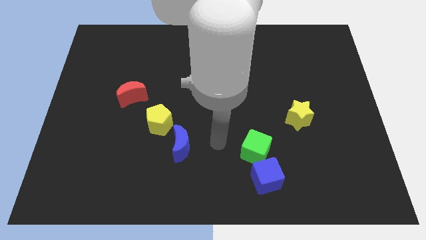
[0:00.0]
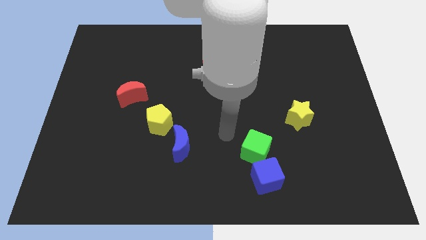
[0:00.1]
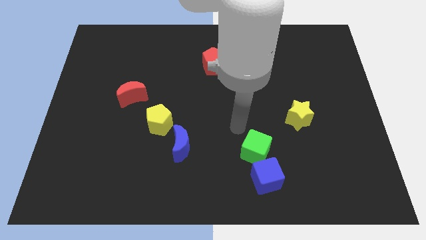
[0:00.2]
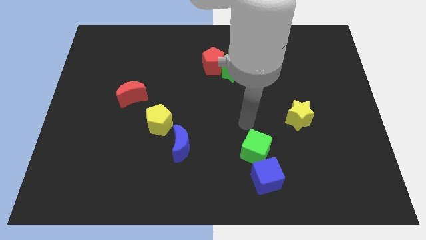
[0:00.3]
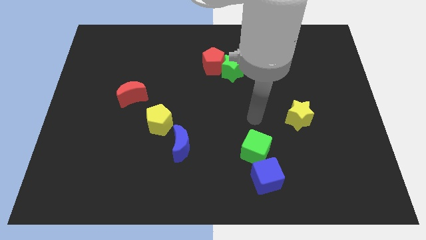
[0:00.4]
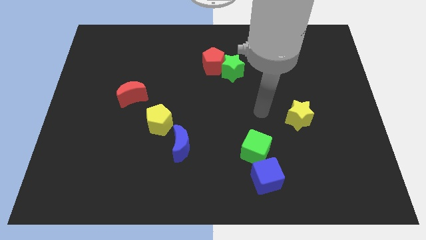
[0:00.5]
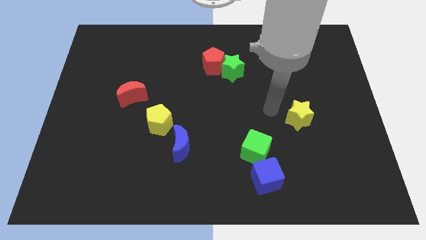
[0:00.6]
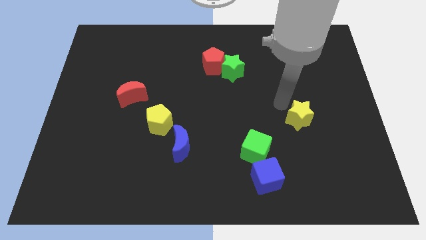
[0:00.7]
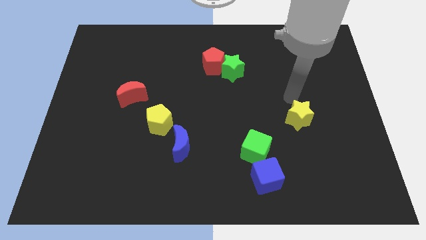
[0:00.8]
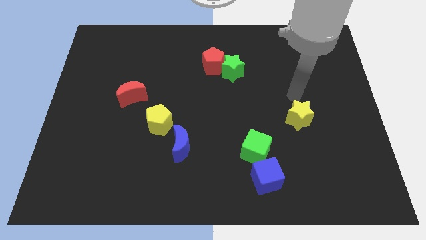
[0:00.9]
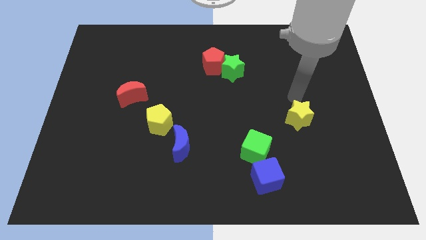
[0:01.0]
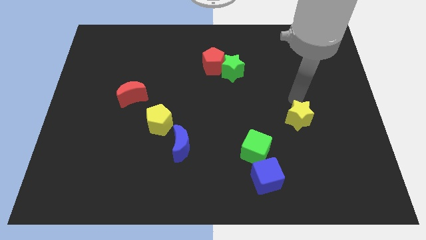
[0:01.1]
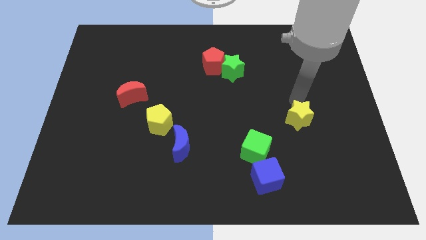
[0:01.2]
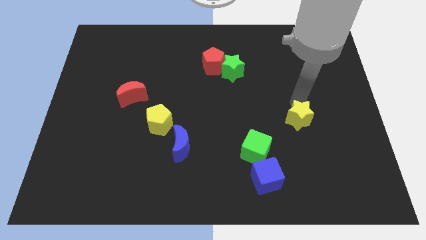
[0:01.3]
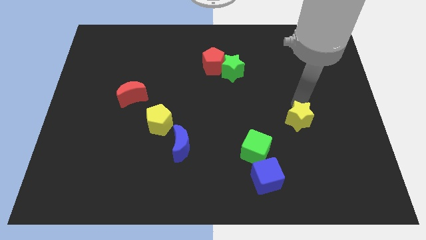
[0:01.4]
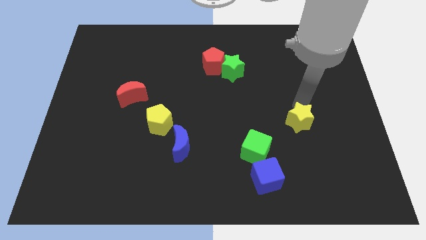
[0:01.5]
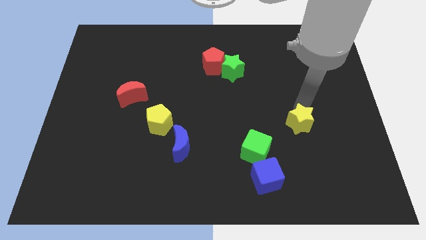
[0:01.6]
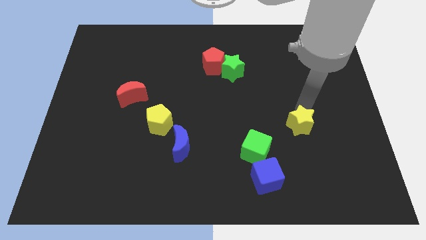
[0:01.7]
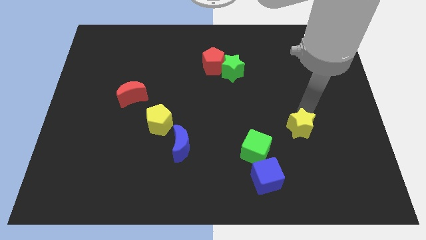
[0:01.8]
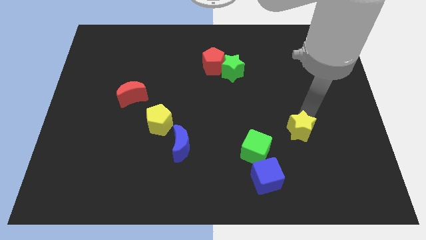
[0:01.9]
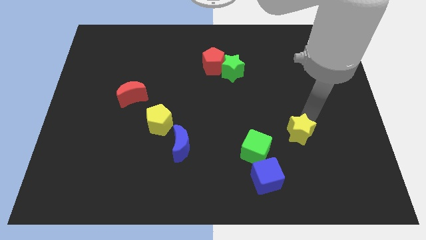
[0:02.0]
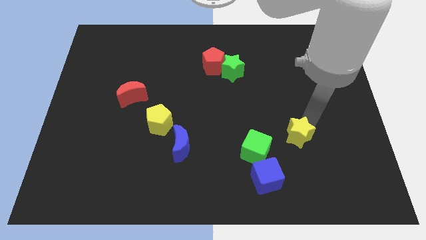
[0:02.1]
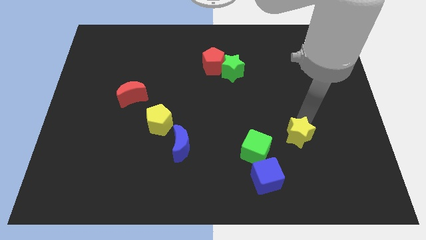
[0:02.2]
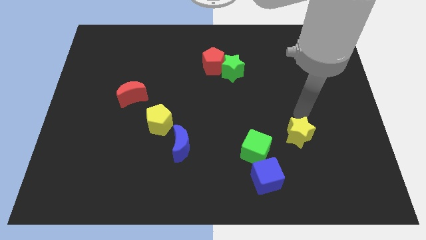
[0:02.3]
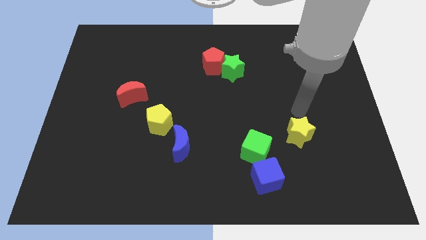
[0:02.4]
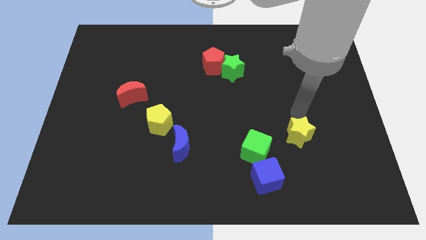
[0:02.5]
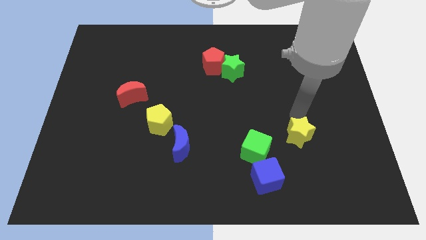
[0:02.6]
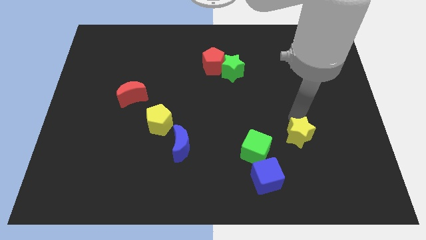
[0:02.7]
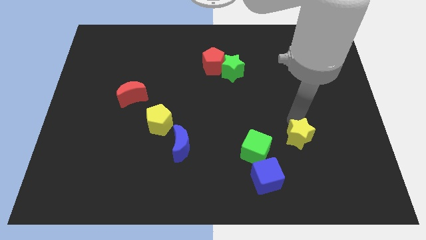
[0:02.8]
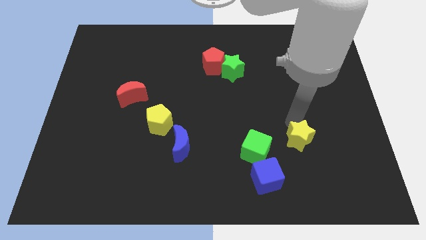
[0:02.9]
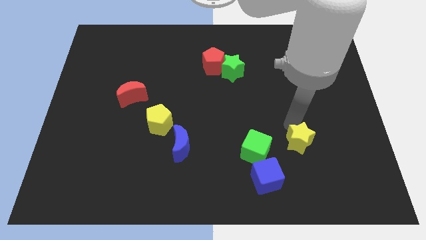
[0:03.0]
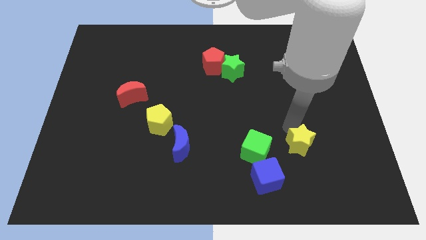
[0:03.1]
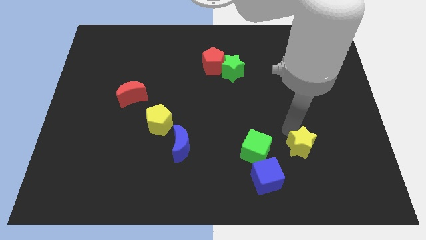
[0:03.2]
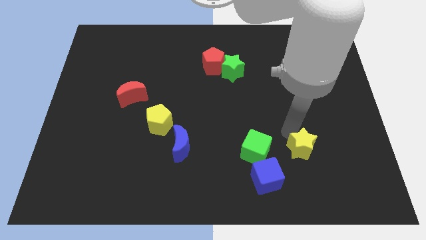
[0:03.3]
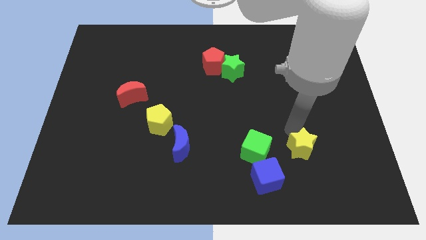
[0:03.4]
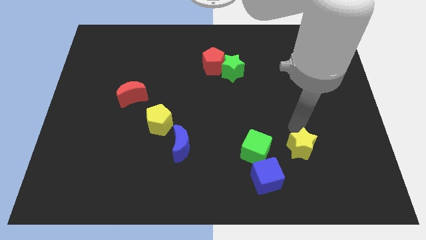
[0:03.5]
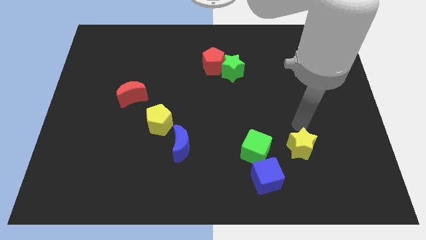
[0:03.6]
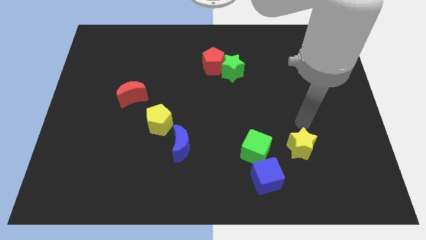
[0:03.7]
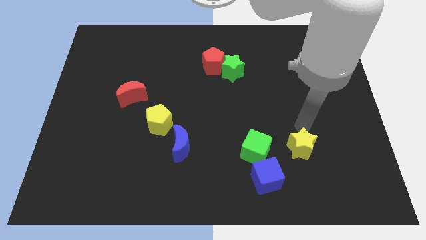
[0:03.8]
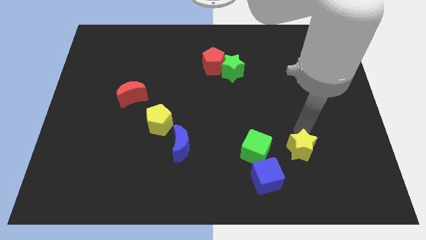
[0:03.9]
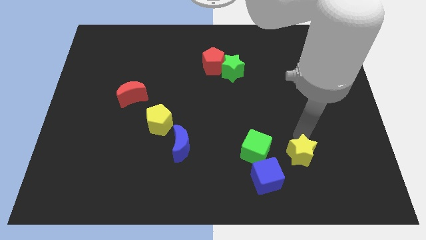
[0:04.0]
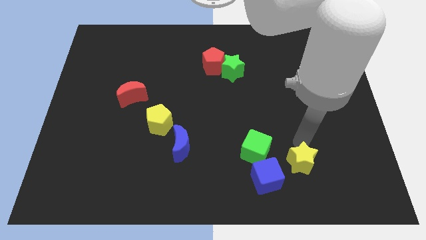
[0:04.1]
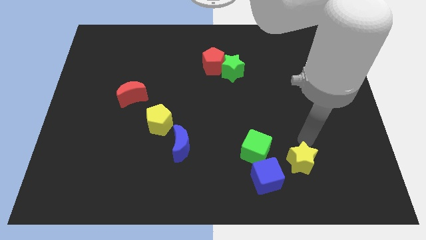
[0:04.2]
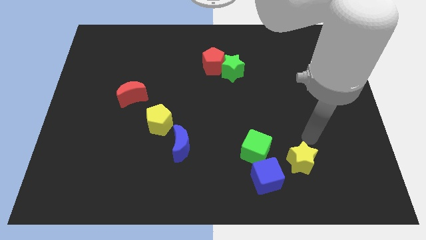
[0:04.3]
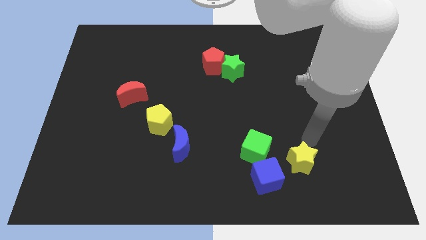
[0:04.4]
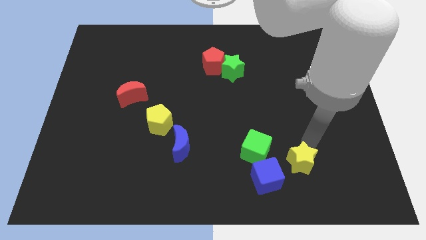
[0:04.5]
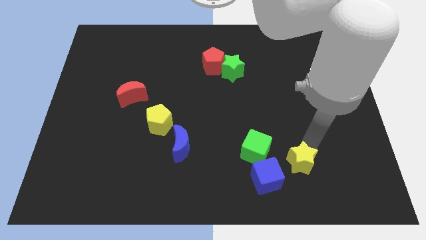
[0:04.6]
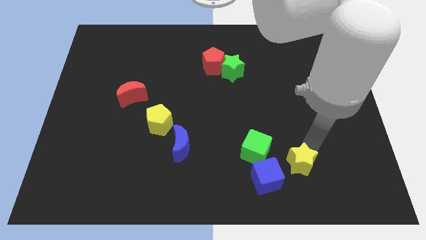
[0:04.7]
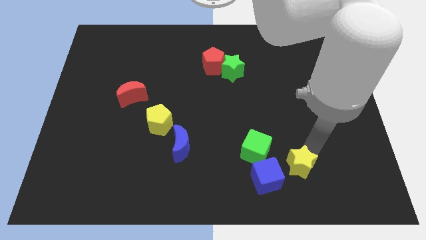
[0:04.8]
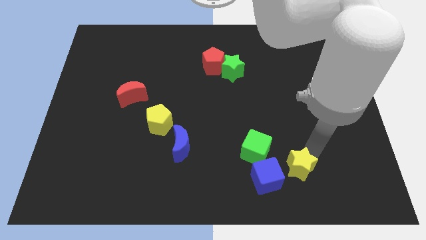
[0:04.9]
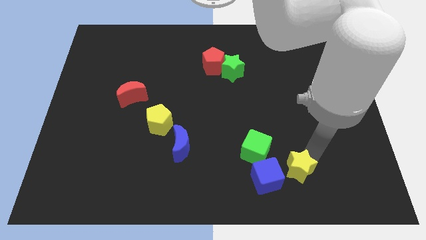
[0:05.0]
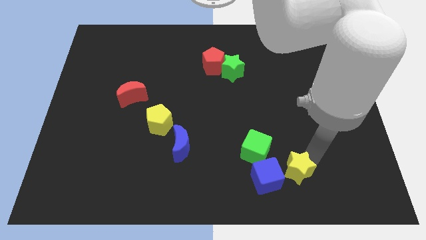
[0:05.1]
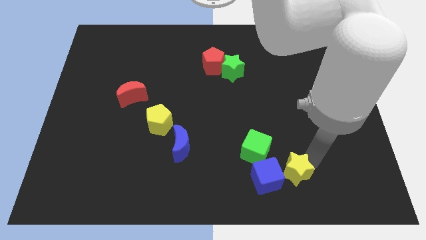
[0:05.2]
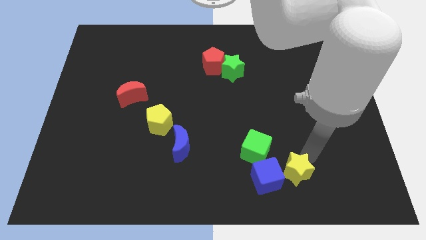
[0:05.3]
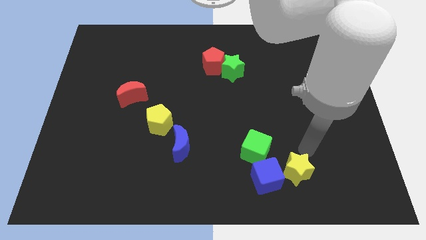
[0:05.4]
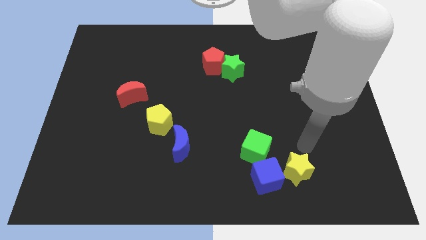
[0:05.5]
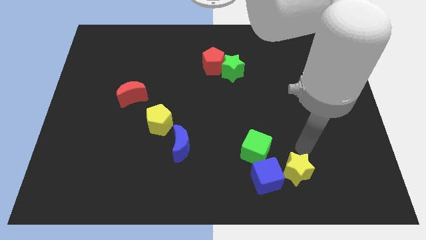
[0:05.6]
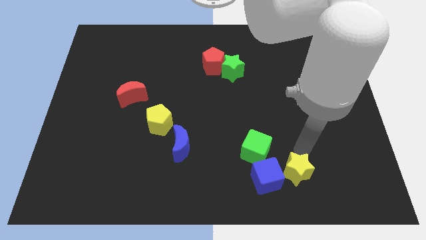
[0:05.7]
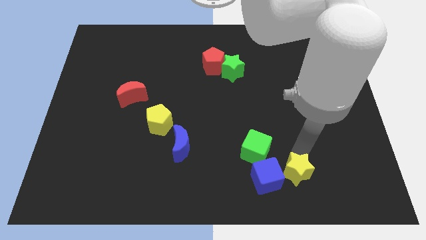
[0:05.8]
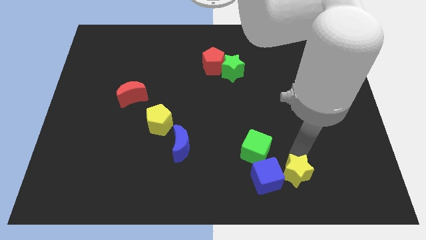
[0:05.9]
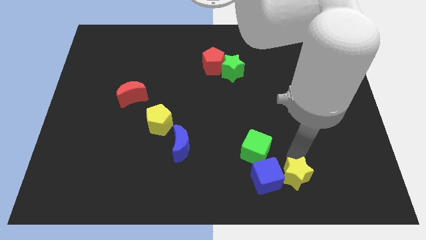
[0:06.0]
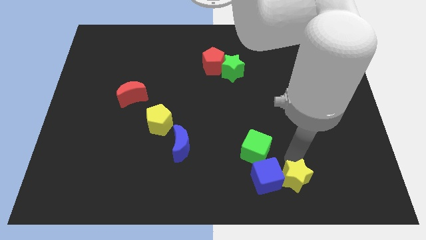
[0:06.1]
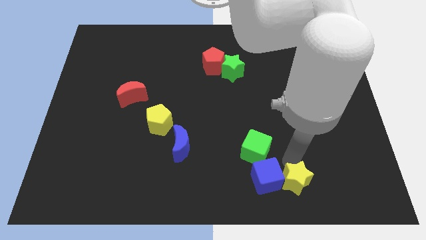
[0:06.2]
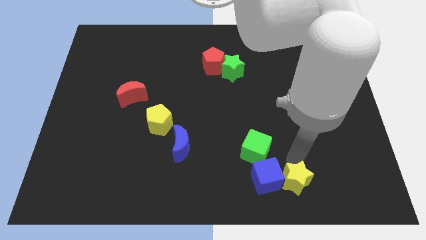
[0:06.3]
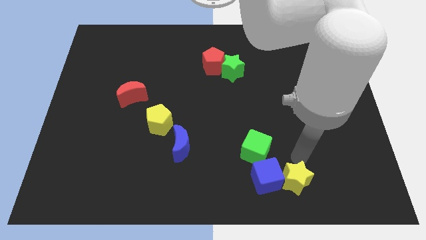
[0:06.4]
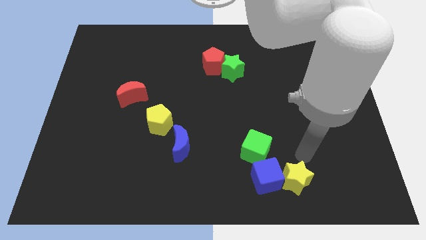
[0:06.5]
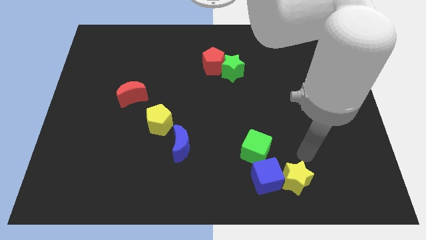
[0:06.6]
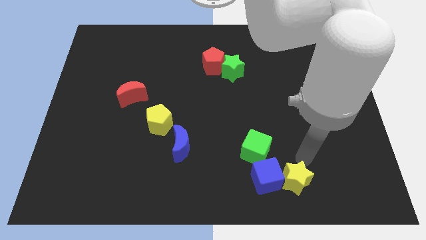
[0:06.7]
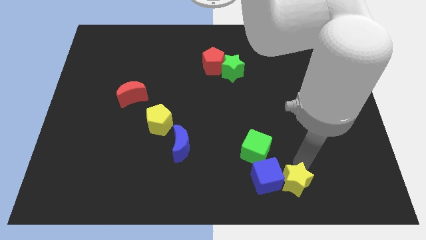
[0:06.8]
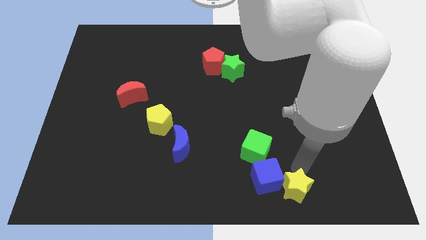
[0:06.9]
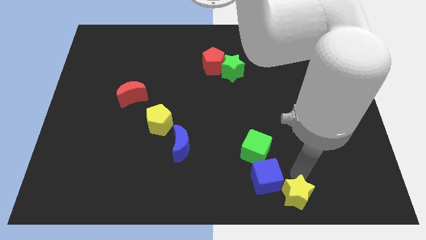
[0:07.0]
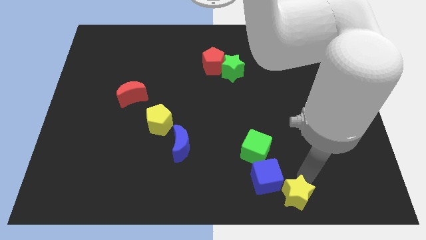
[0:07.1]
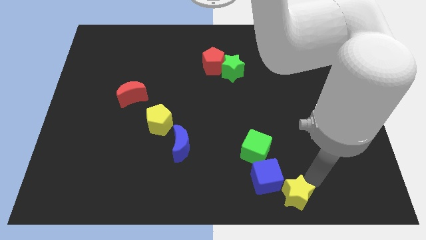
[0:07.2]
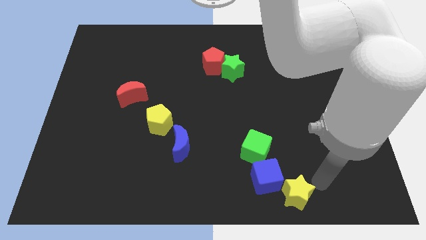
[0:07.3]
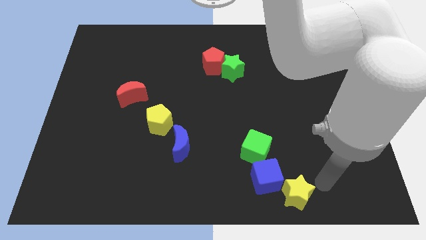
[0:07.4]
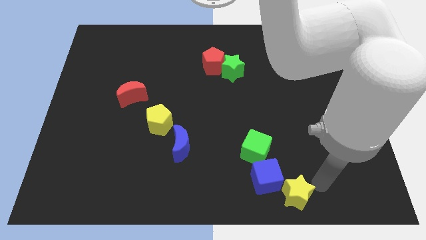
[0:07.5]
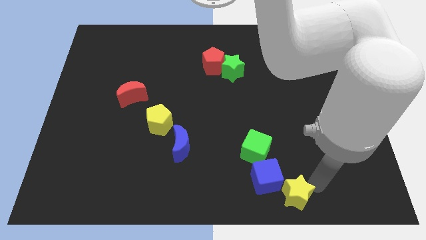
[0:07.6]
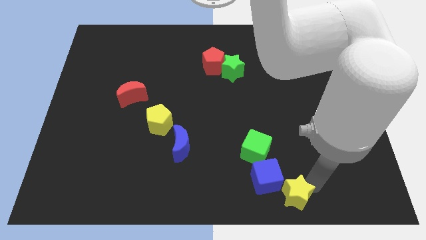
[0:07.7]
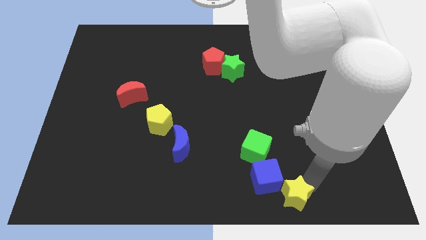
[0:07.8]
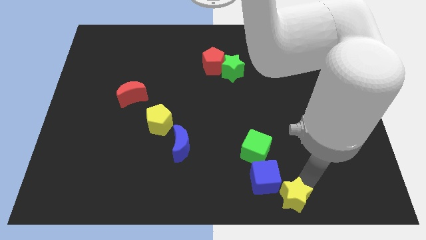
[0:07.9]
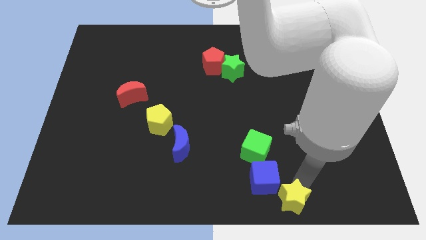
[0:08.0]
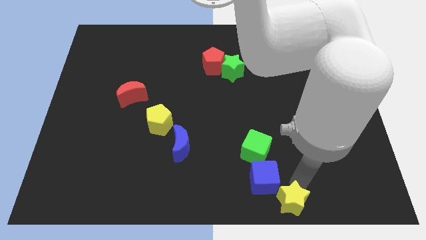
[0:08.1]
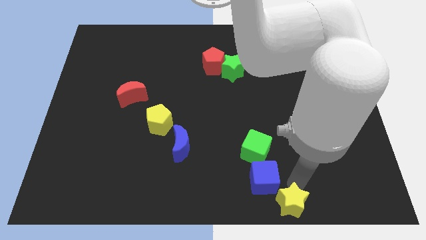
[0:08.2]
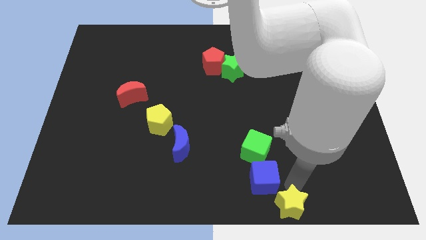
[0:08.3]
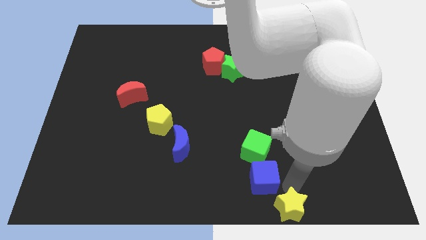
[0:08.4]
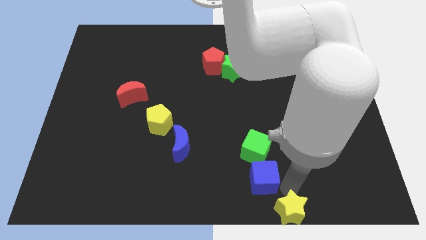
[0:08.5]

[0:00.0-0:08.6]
slide the yellow star to the bottom side
